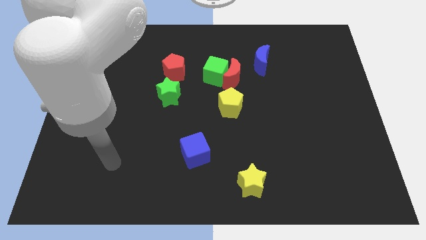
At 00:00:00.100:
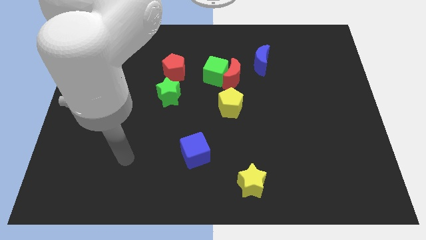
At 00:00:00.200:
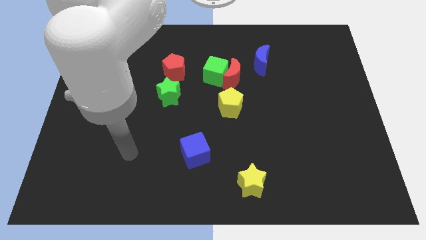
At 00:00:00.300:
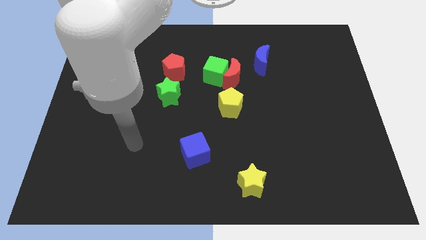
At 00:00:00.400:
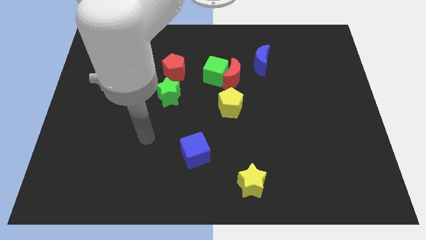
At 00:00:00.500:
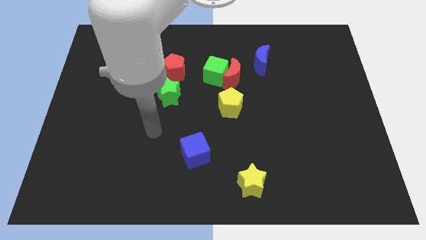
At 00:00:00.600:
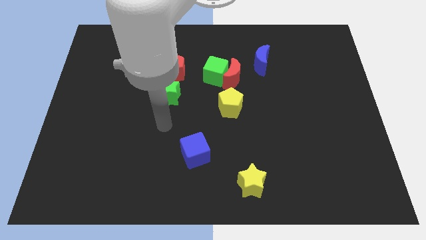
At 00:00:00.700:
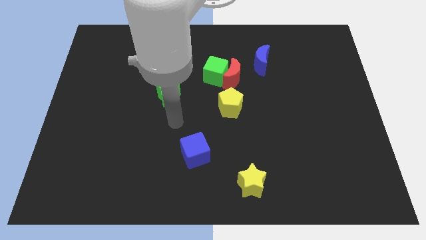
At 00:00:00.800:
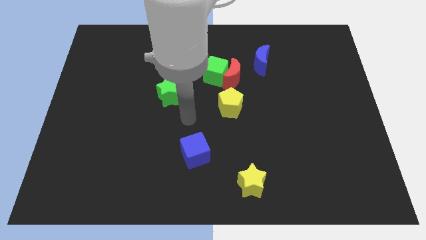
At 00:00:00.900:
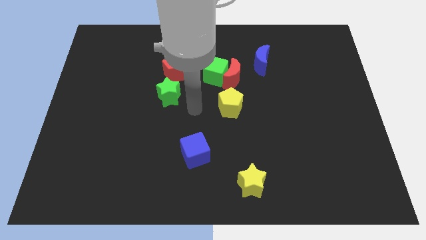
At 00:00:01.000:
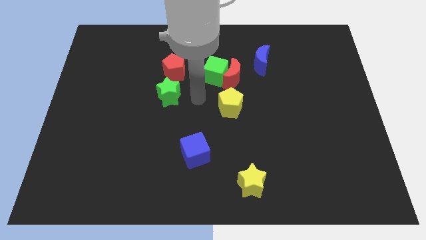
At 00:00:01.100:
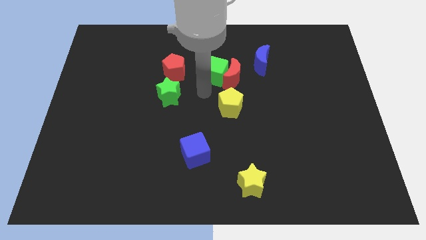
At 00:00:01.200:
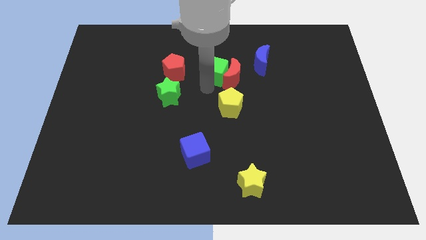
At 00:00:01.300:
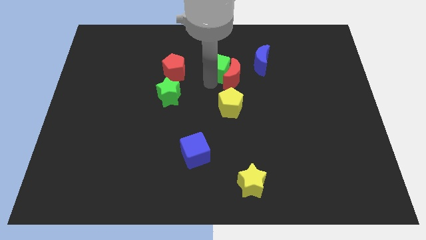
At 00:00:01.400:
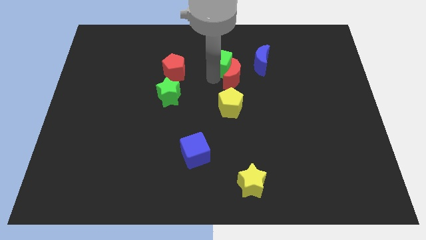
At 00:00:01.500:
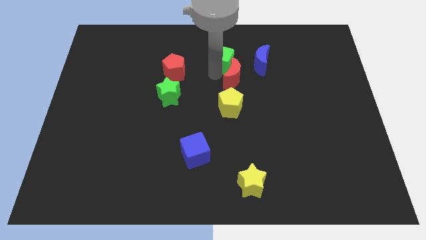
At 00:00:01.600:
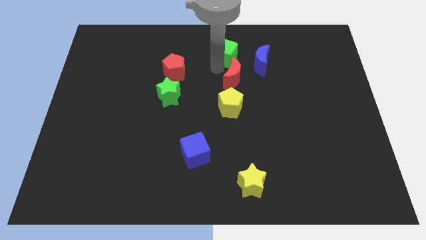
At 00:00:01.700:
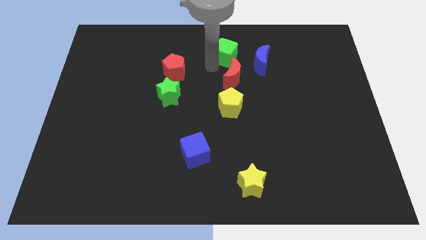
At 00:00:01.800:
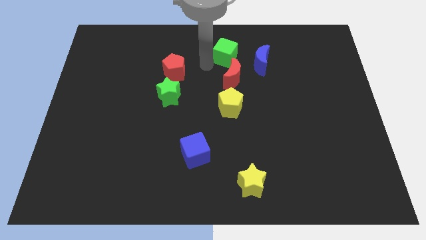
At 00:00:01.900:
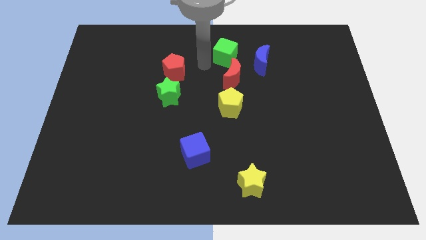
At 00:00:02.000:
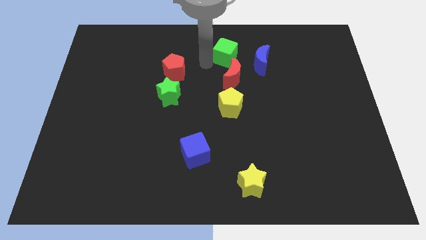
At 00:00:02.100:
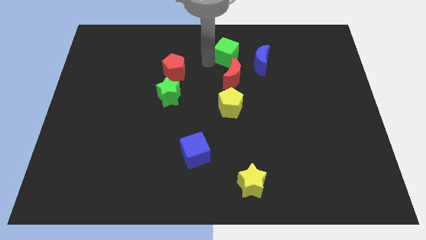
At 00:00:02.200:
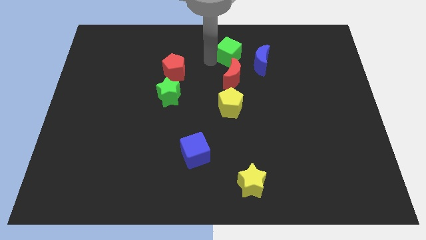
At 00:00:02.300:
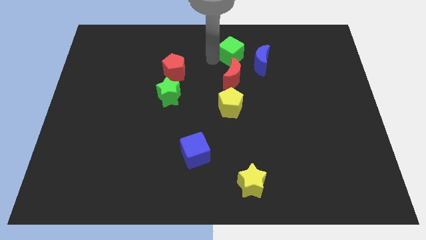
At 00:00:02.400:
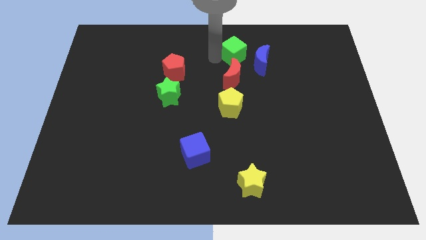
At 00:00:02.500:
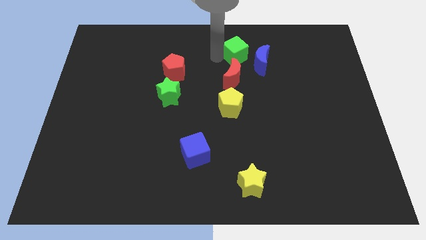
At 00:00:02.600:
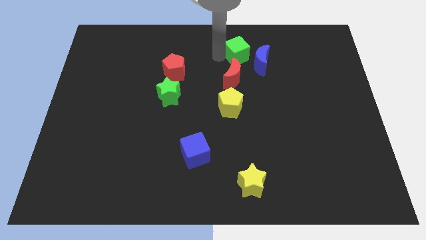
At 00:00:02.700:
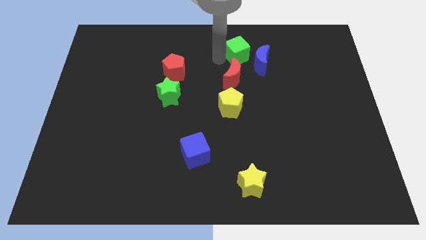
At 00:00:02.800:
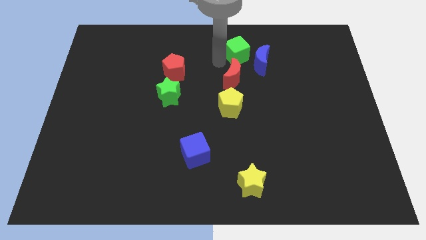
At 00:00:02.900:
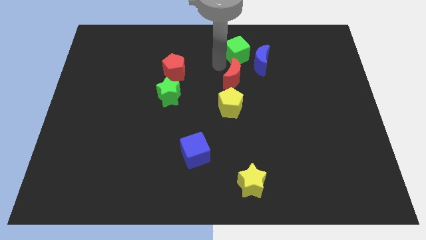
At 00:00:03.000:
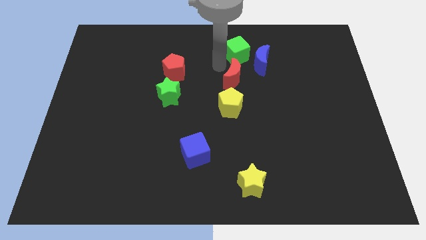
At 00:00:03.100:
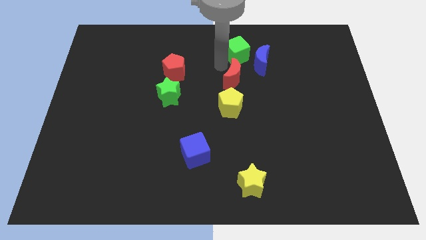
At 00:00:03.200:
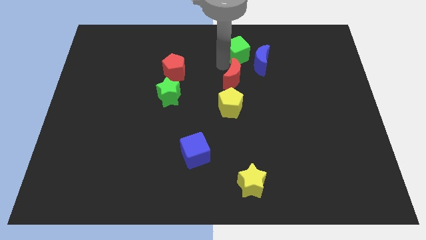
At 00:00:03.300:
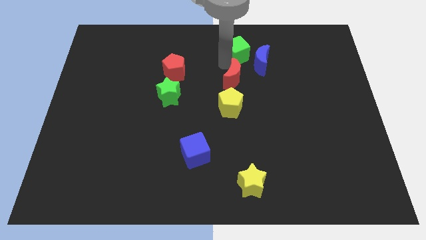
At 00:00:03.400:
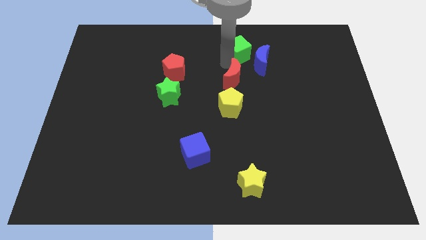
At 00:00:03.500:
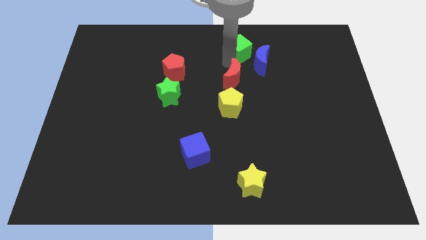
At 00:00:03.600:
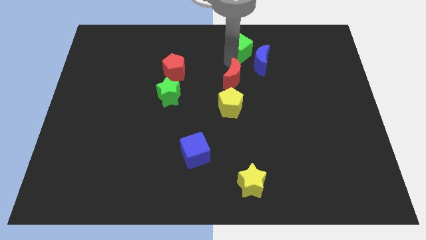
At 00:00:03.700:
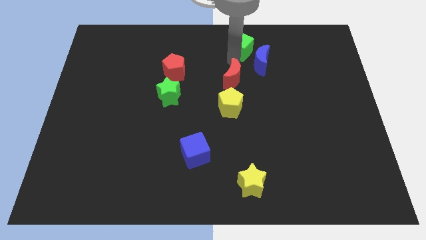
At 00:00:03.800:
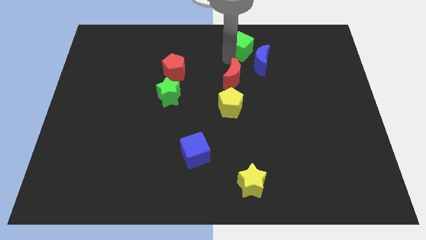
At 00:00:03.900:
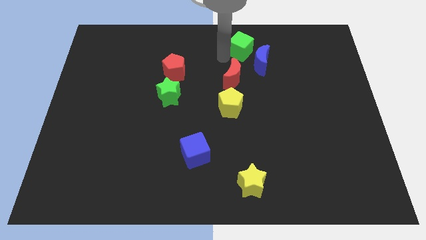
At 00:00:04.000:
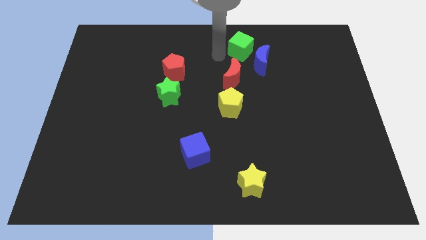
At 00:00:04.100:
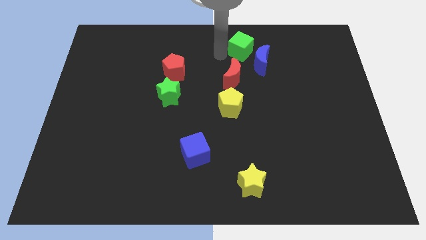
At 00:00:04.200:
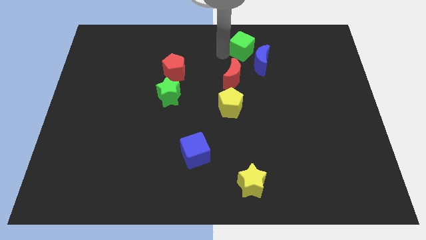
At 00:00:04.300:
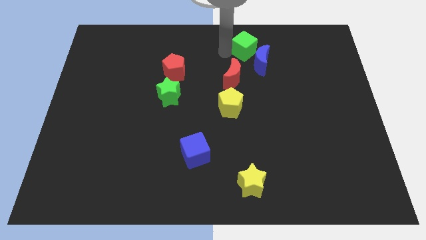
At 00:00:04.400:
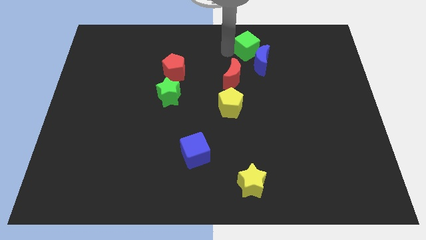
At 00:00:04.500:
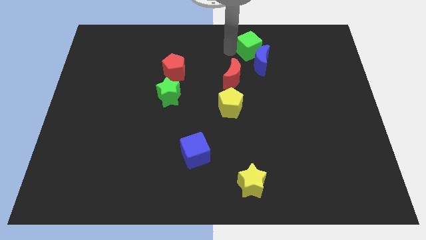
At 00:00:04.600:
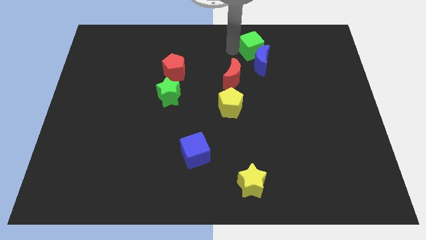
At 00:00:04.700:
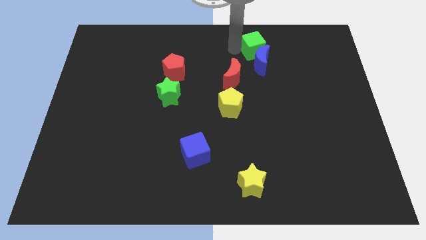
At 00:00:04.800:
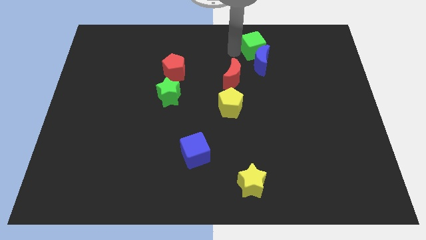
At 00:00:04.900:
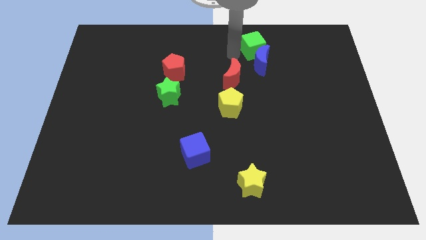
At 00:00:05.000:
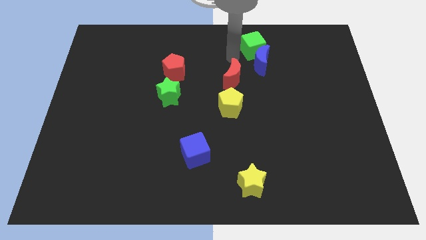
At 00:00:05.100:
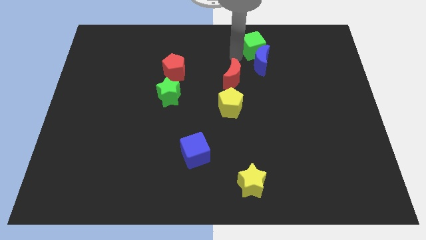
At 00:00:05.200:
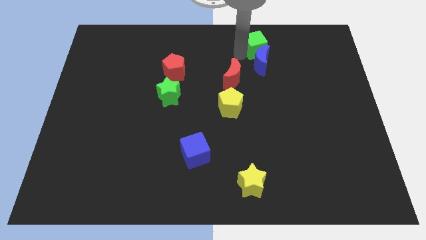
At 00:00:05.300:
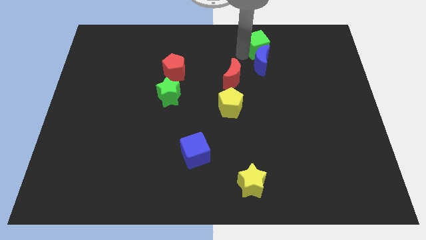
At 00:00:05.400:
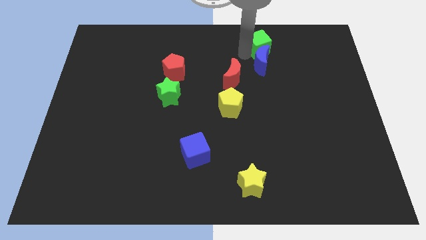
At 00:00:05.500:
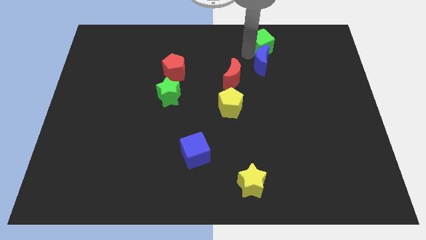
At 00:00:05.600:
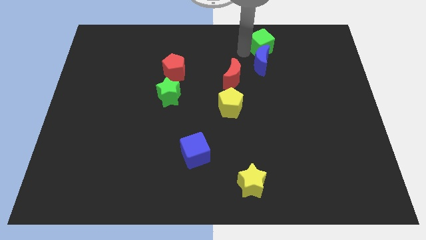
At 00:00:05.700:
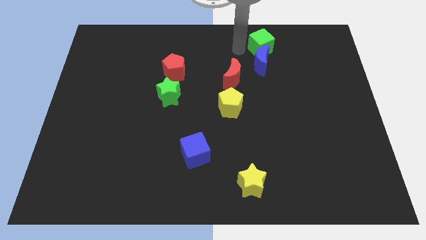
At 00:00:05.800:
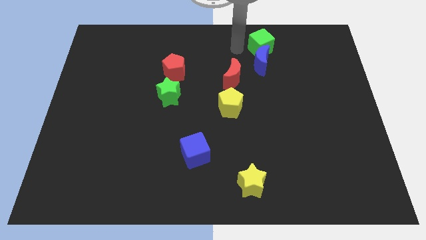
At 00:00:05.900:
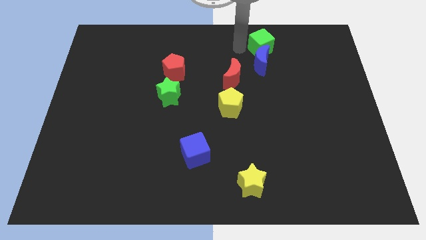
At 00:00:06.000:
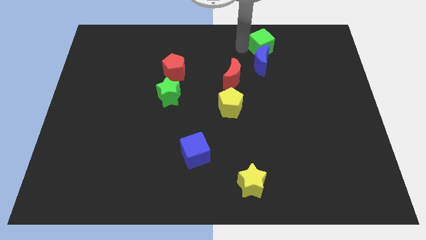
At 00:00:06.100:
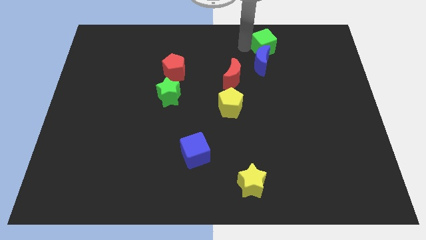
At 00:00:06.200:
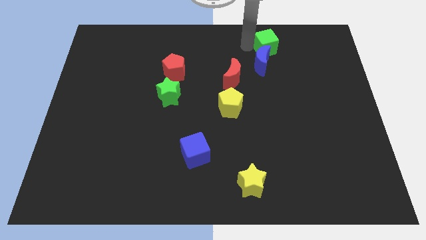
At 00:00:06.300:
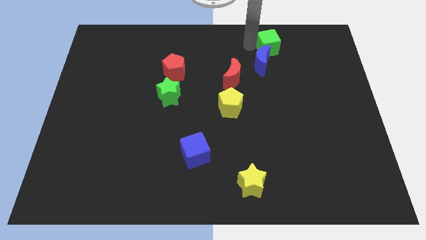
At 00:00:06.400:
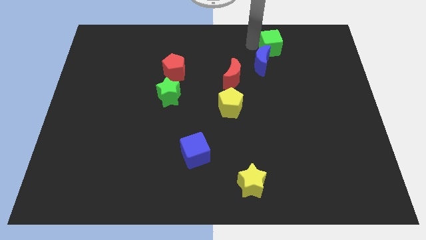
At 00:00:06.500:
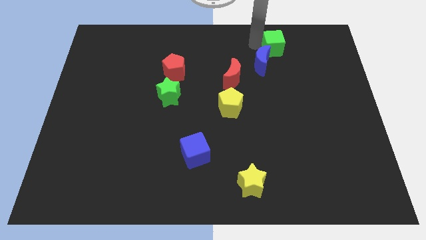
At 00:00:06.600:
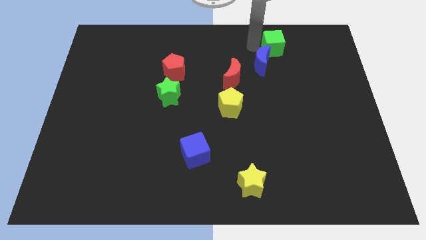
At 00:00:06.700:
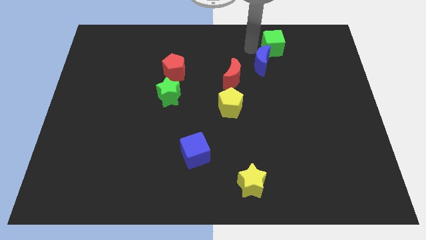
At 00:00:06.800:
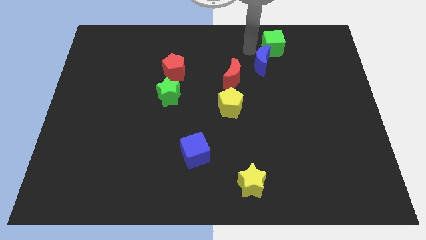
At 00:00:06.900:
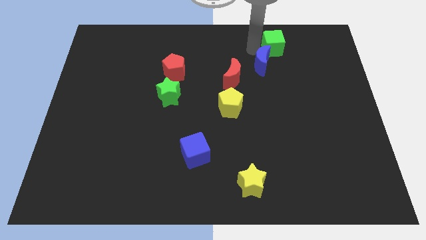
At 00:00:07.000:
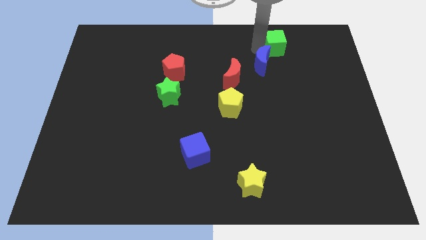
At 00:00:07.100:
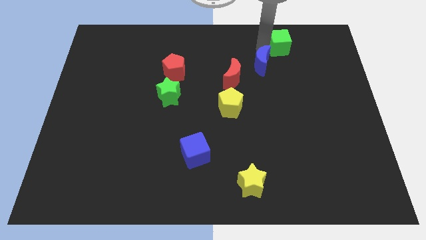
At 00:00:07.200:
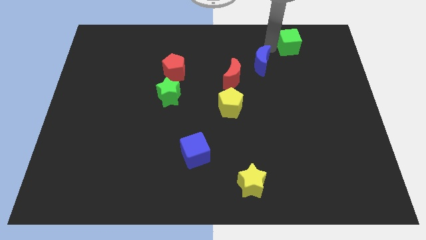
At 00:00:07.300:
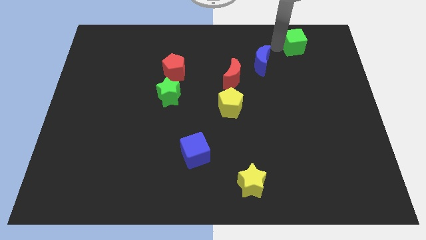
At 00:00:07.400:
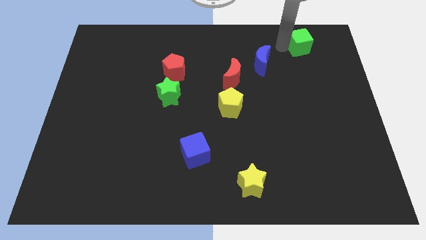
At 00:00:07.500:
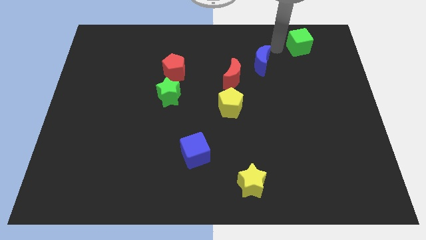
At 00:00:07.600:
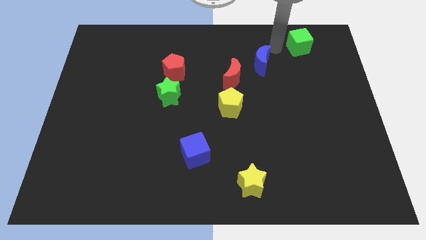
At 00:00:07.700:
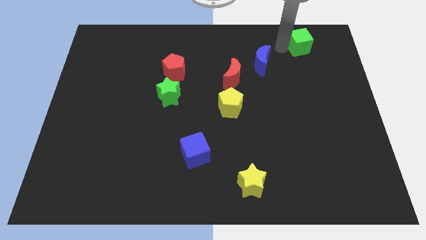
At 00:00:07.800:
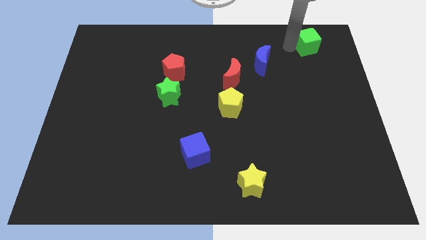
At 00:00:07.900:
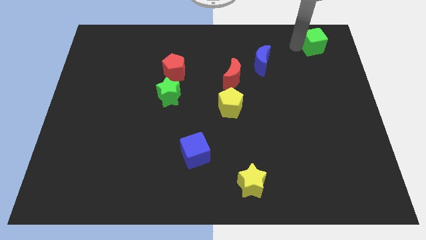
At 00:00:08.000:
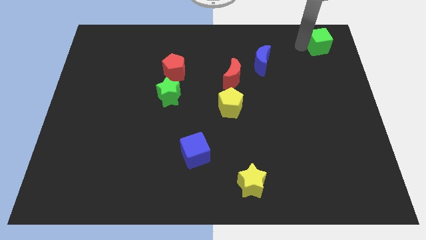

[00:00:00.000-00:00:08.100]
slide the green cube to the top right of the board
